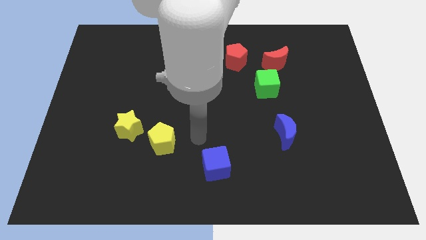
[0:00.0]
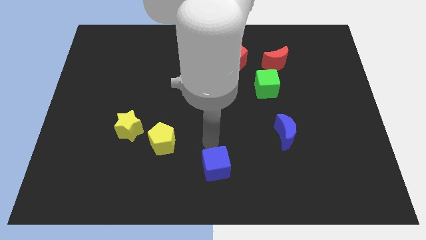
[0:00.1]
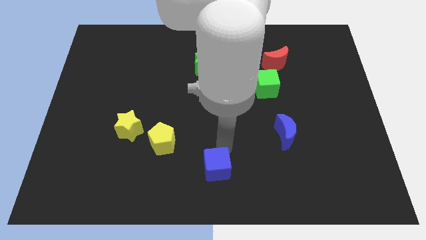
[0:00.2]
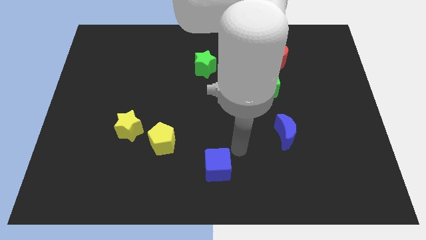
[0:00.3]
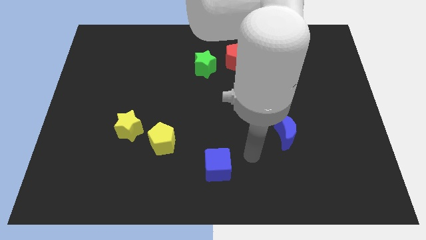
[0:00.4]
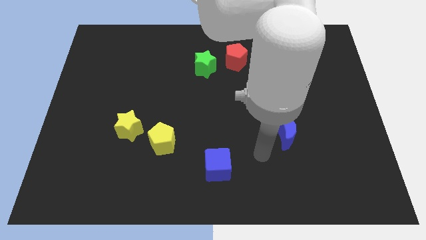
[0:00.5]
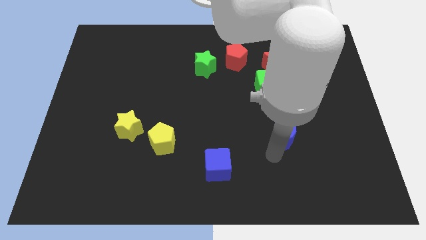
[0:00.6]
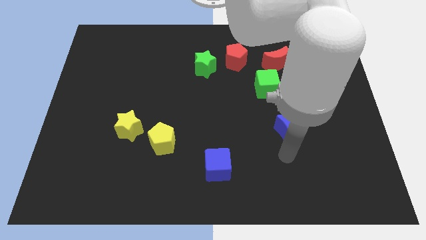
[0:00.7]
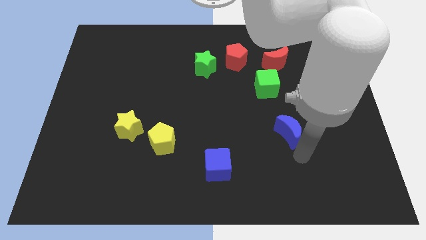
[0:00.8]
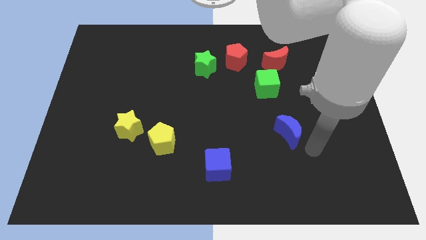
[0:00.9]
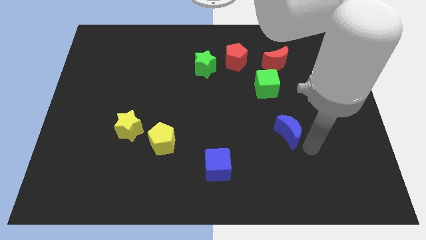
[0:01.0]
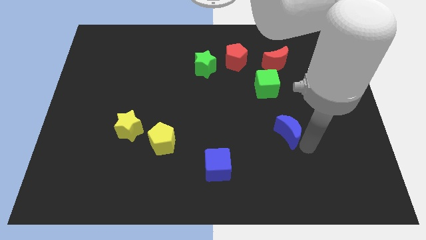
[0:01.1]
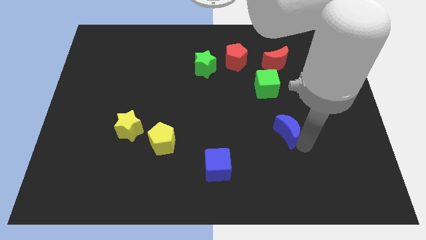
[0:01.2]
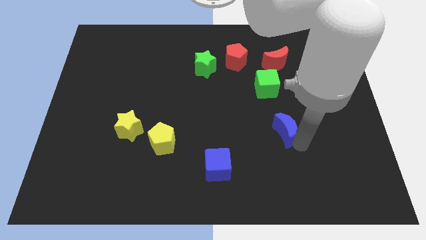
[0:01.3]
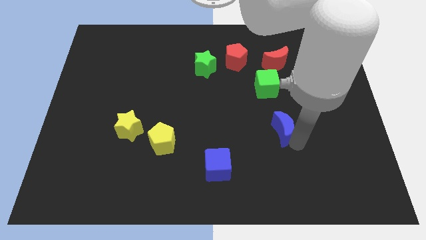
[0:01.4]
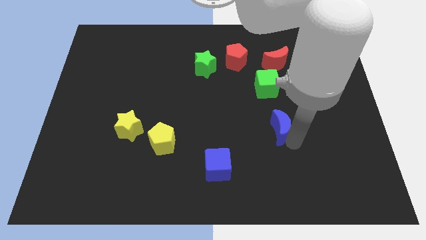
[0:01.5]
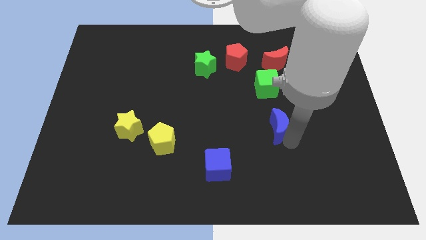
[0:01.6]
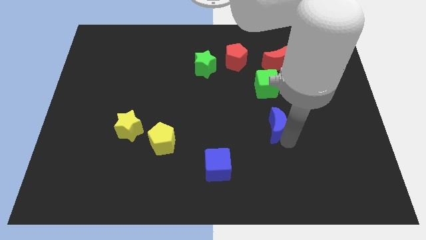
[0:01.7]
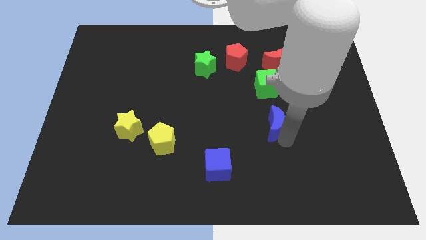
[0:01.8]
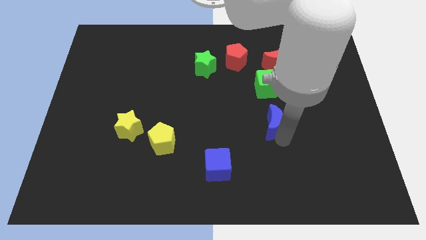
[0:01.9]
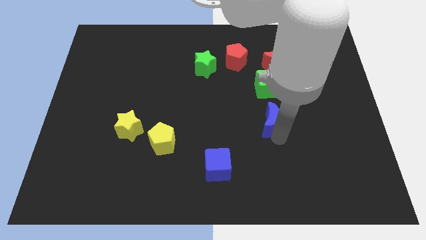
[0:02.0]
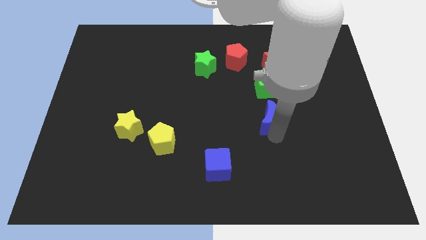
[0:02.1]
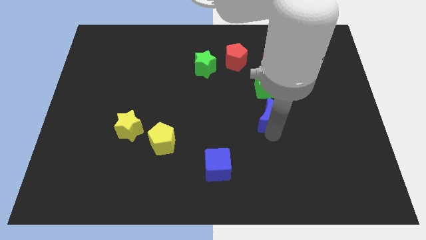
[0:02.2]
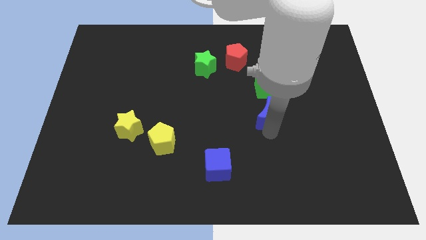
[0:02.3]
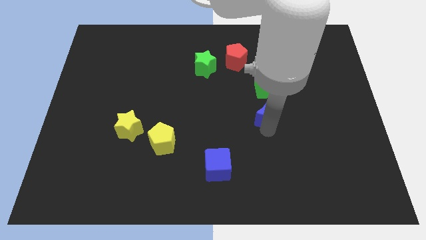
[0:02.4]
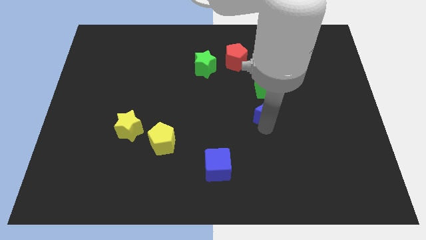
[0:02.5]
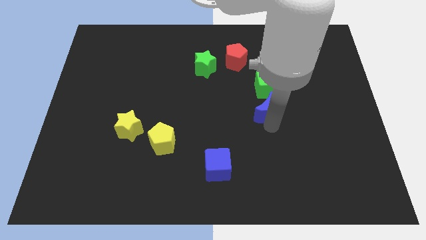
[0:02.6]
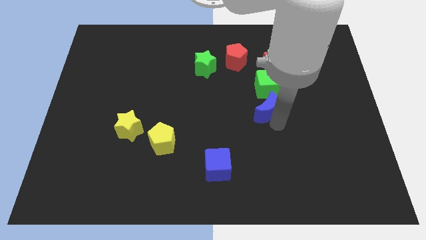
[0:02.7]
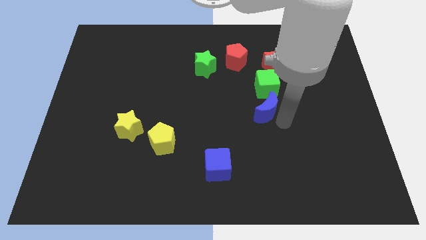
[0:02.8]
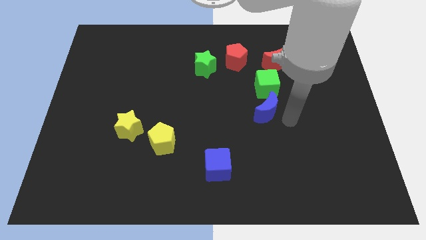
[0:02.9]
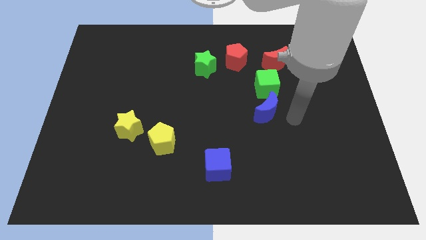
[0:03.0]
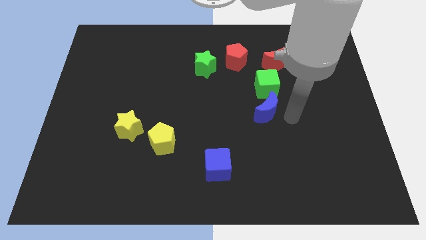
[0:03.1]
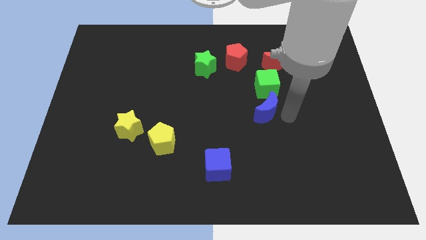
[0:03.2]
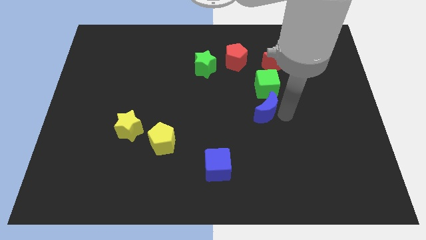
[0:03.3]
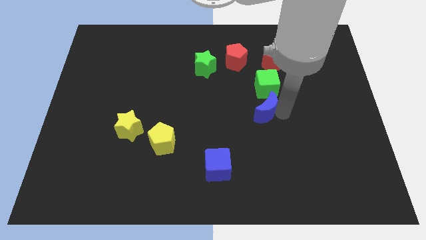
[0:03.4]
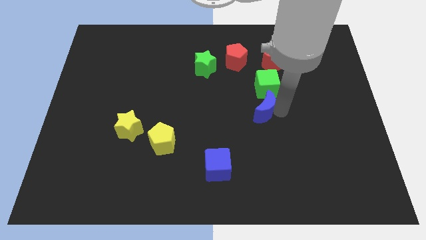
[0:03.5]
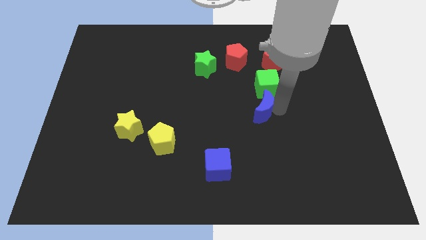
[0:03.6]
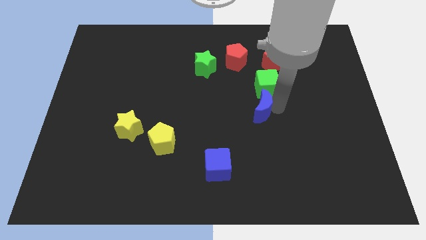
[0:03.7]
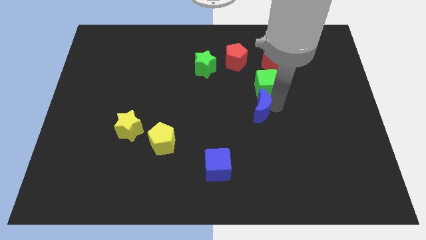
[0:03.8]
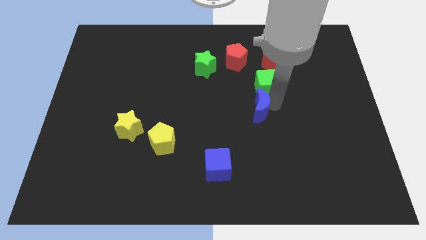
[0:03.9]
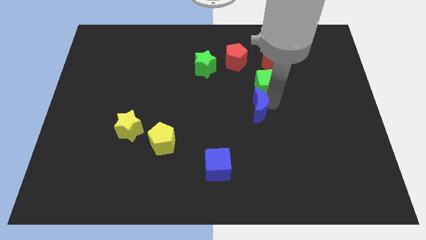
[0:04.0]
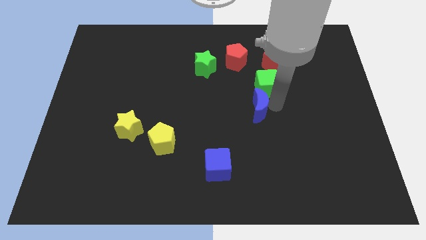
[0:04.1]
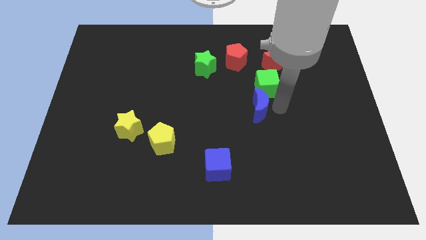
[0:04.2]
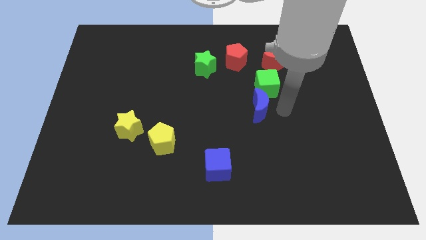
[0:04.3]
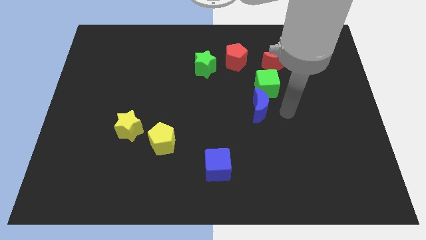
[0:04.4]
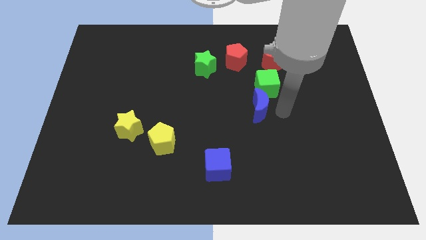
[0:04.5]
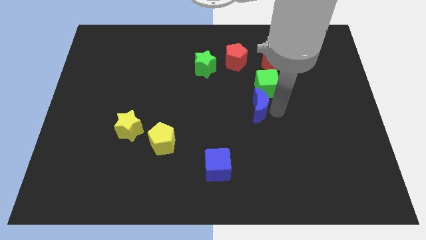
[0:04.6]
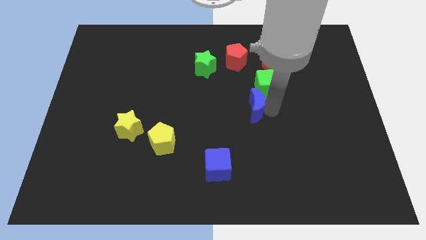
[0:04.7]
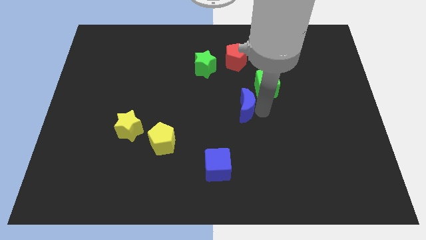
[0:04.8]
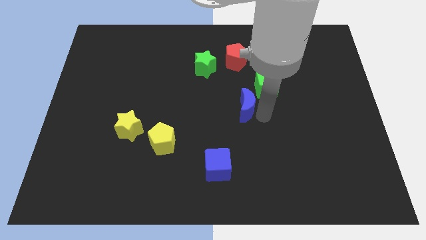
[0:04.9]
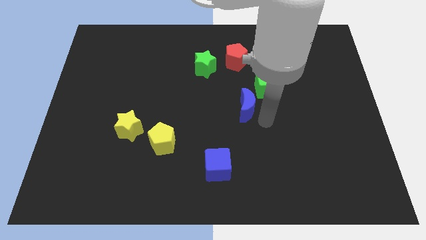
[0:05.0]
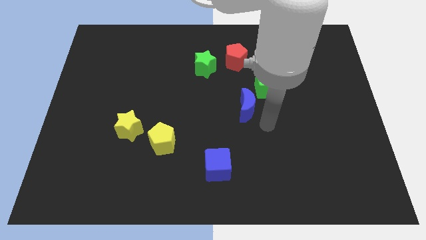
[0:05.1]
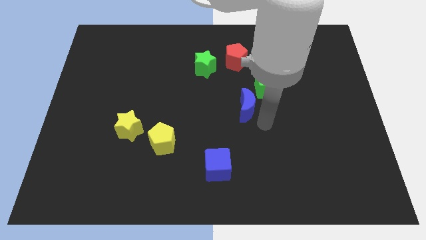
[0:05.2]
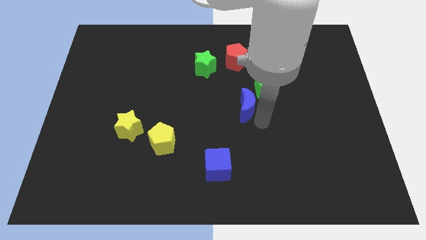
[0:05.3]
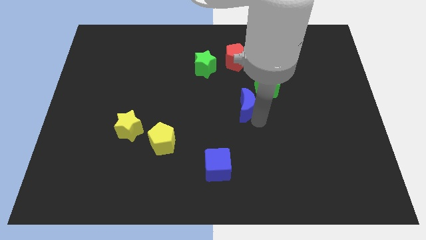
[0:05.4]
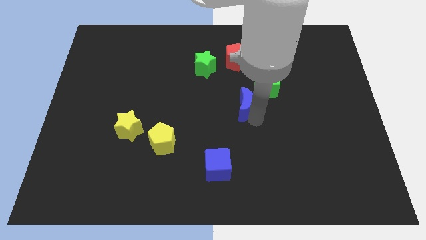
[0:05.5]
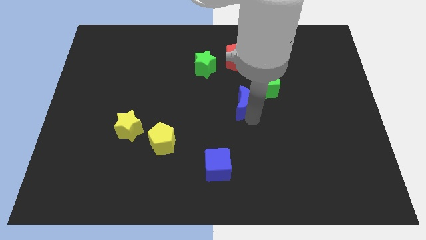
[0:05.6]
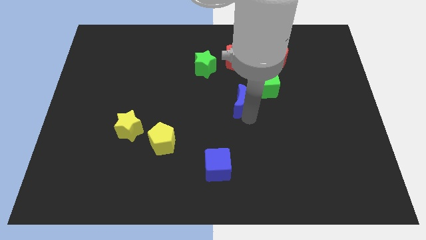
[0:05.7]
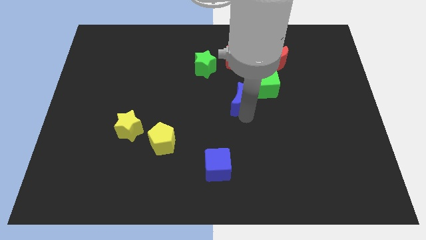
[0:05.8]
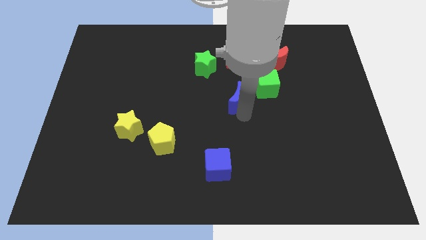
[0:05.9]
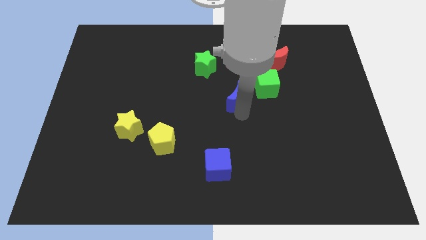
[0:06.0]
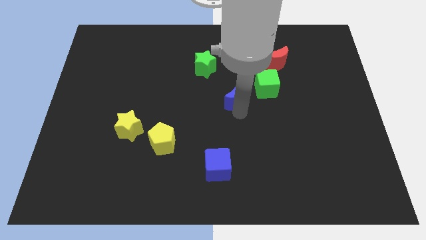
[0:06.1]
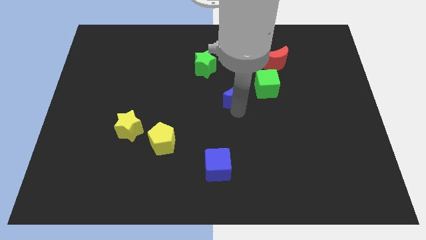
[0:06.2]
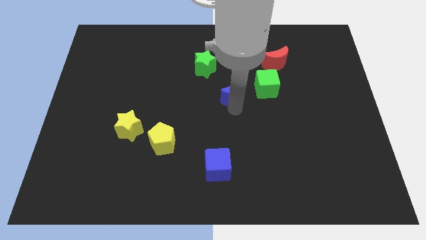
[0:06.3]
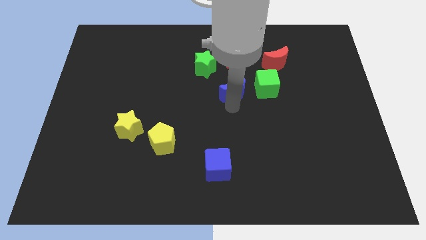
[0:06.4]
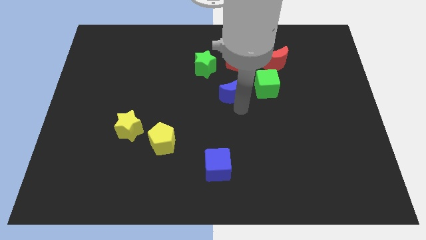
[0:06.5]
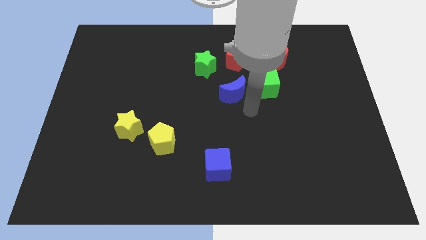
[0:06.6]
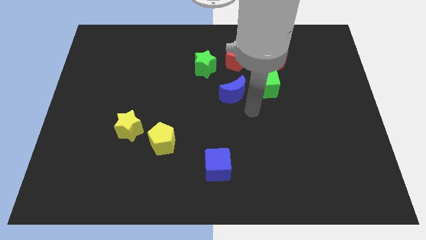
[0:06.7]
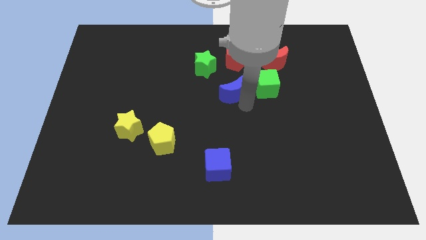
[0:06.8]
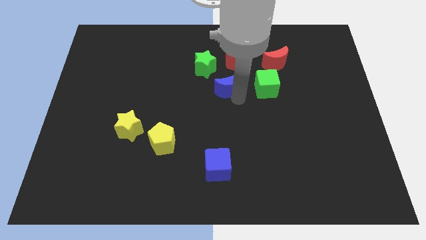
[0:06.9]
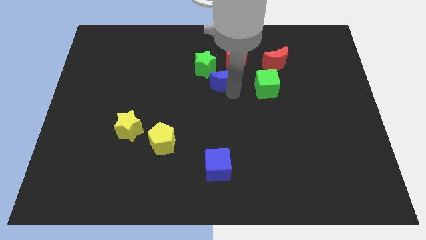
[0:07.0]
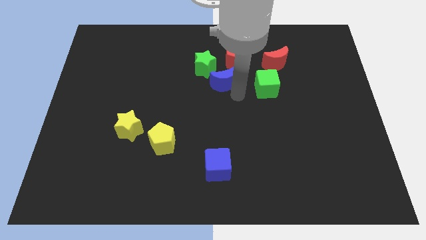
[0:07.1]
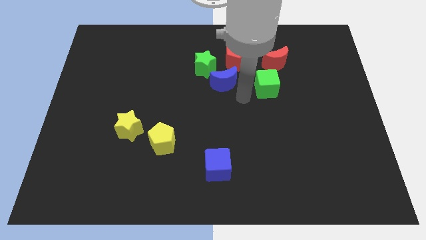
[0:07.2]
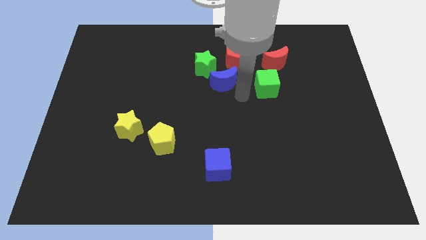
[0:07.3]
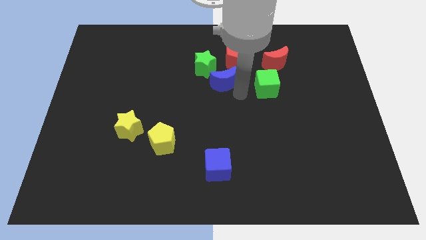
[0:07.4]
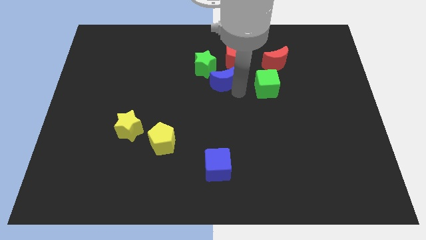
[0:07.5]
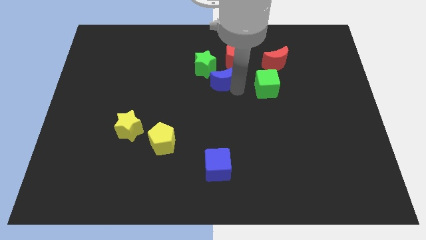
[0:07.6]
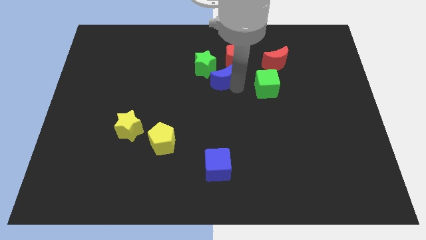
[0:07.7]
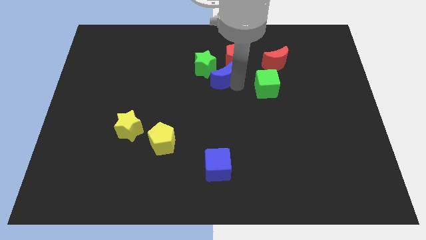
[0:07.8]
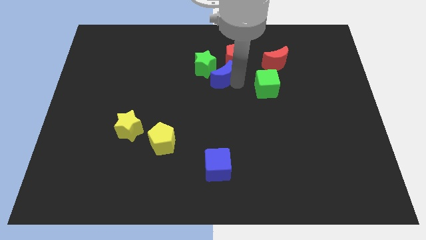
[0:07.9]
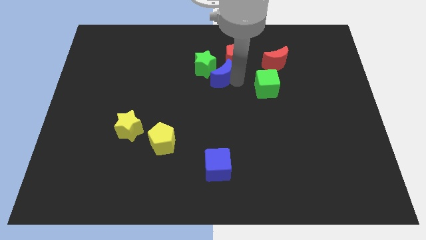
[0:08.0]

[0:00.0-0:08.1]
push the blue moon towards the green star
